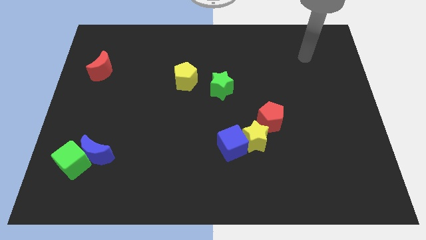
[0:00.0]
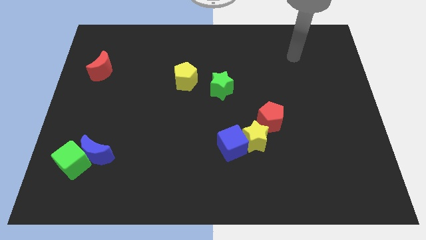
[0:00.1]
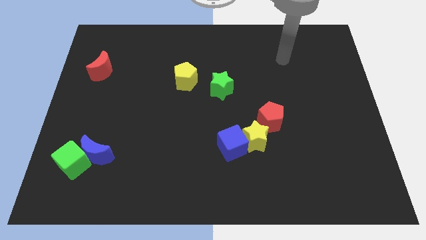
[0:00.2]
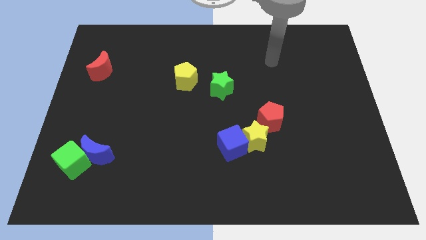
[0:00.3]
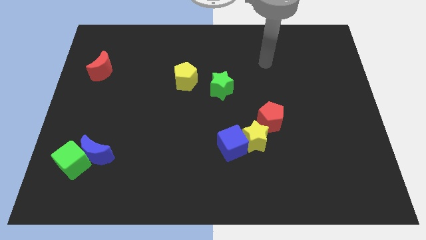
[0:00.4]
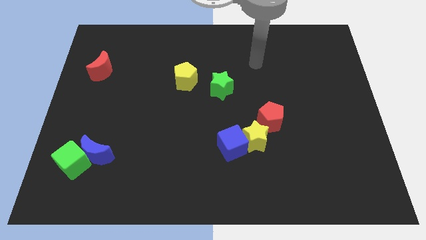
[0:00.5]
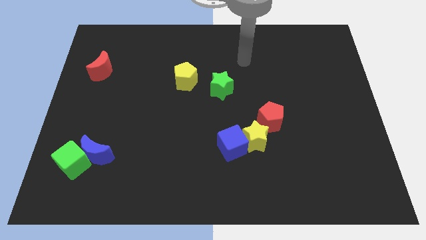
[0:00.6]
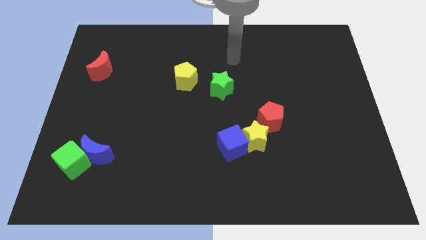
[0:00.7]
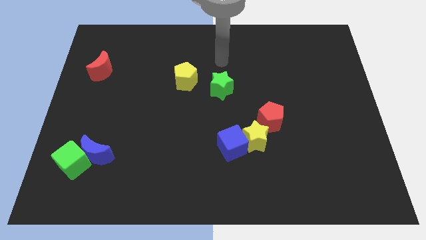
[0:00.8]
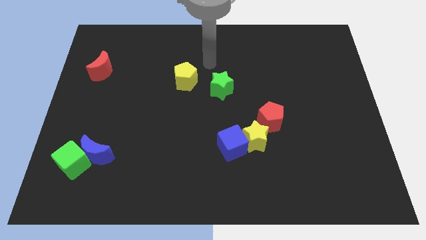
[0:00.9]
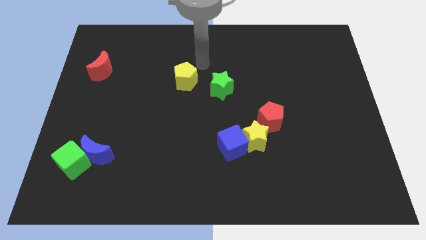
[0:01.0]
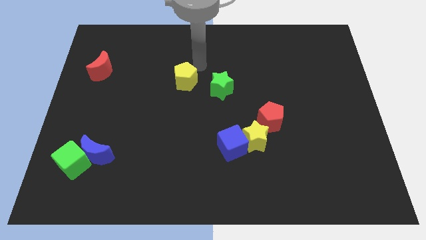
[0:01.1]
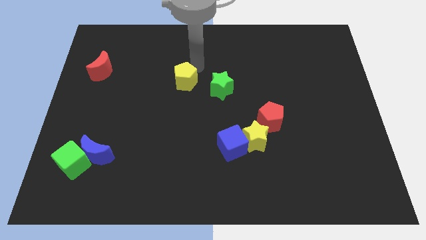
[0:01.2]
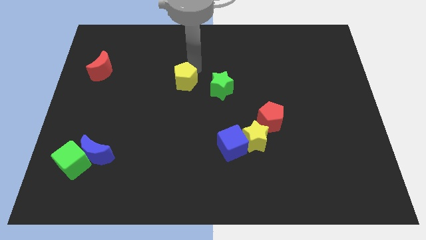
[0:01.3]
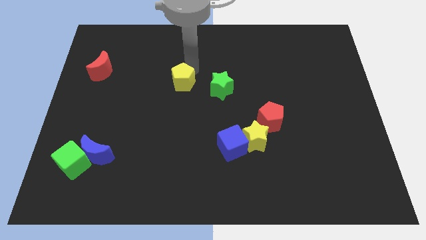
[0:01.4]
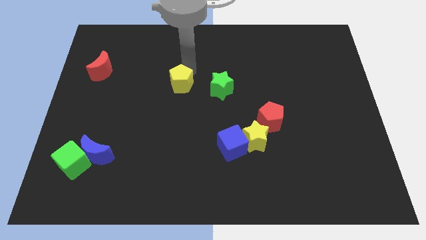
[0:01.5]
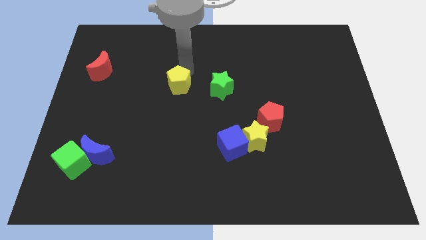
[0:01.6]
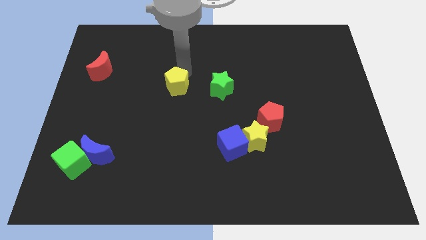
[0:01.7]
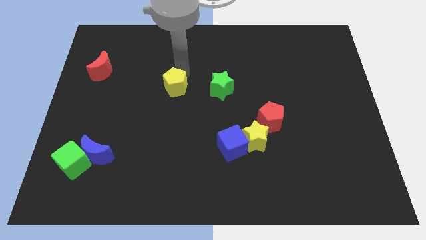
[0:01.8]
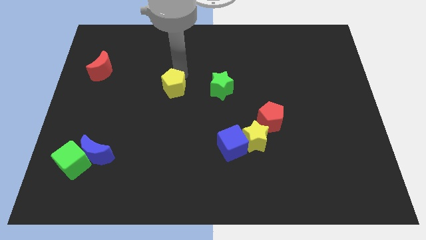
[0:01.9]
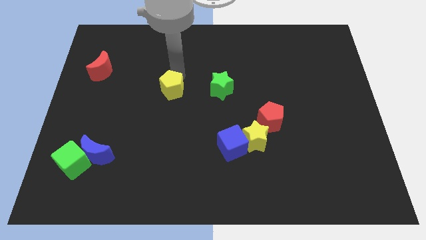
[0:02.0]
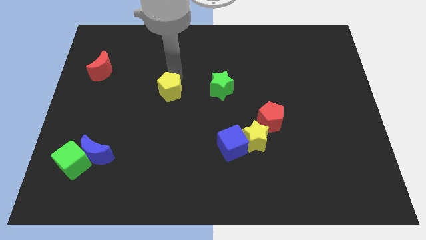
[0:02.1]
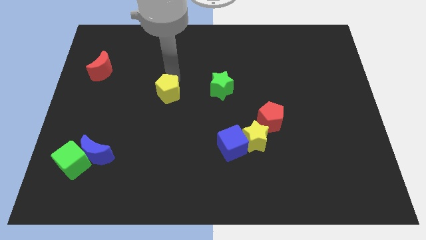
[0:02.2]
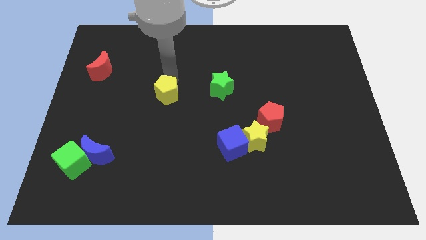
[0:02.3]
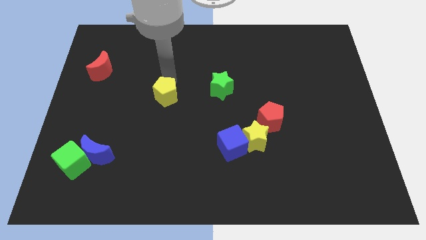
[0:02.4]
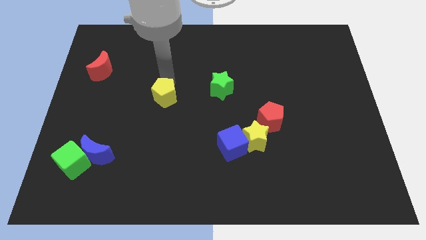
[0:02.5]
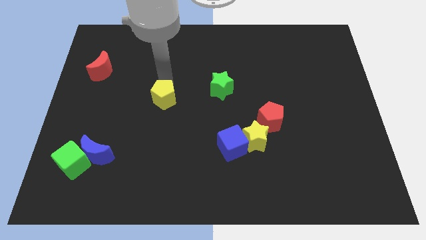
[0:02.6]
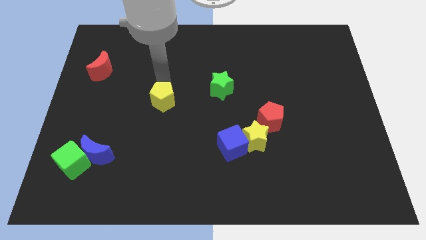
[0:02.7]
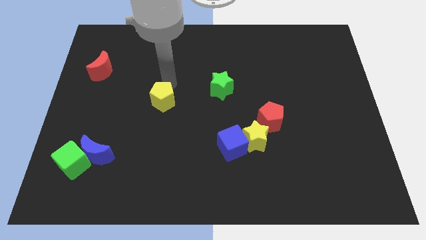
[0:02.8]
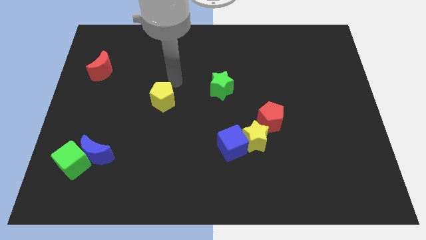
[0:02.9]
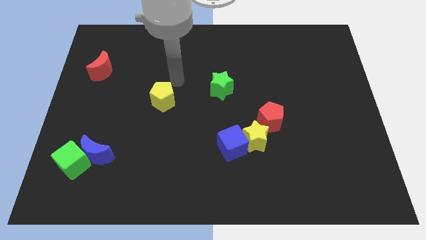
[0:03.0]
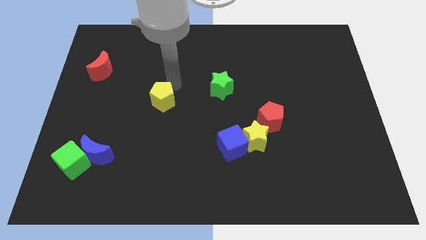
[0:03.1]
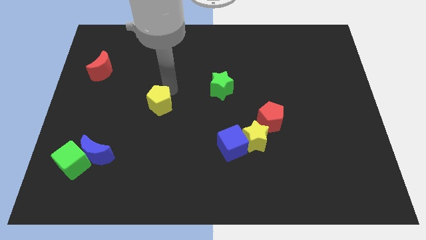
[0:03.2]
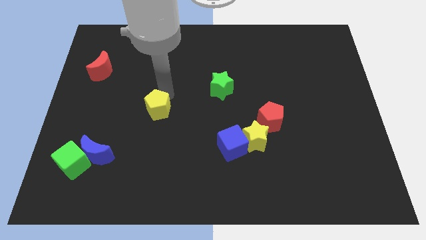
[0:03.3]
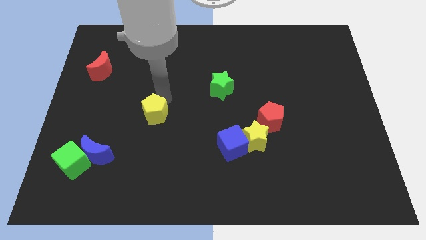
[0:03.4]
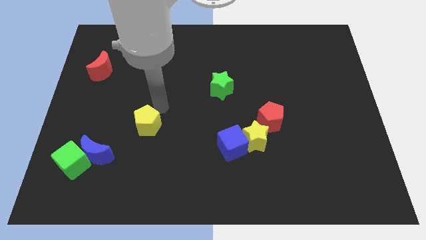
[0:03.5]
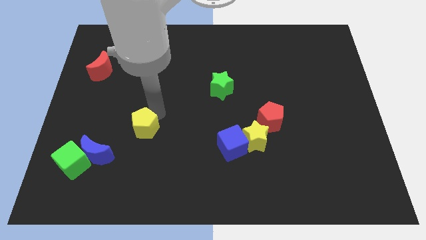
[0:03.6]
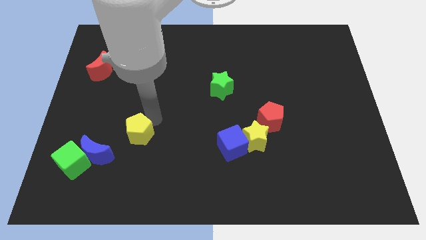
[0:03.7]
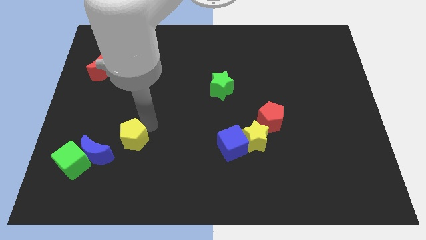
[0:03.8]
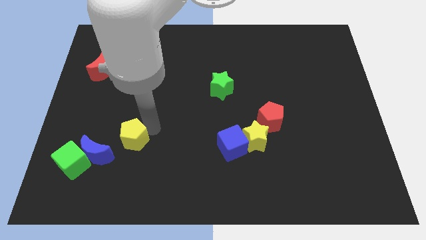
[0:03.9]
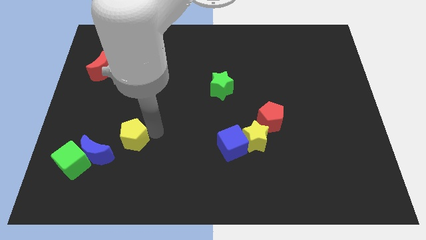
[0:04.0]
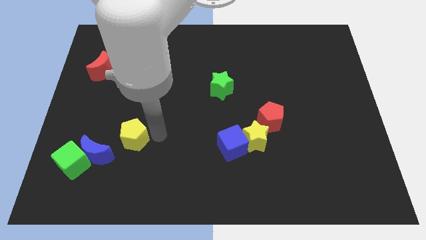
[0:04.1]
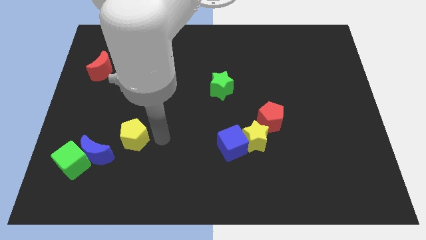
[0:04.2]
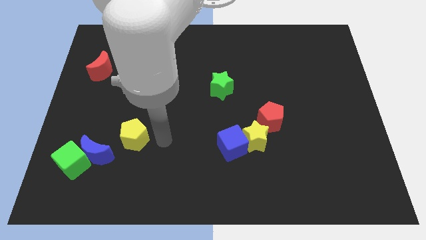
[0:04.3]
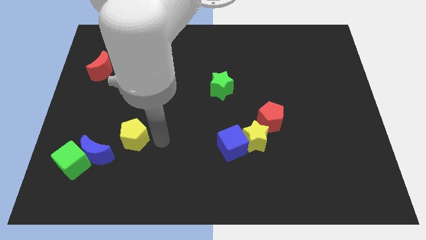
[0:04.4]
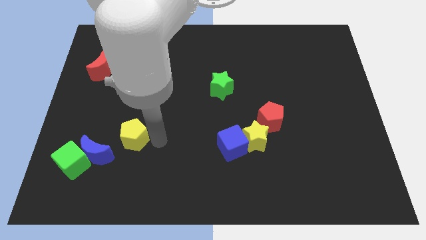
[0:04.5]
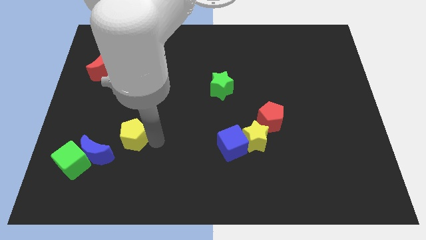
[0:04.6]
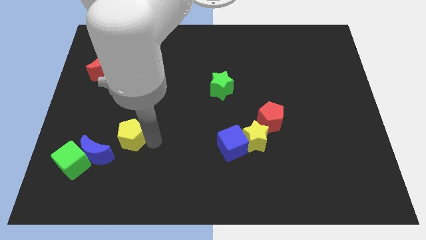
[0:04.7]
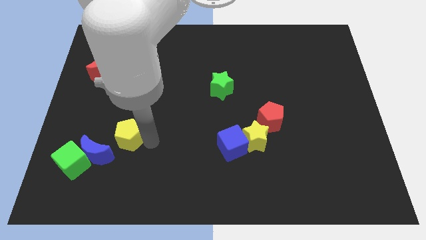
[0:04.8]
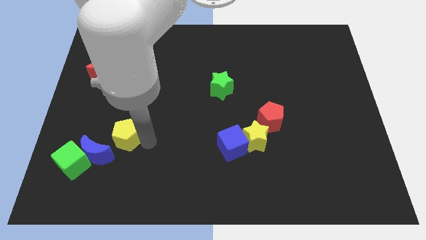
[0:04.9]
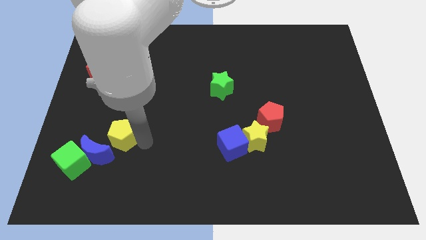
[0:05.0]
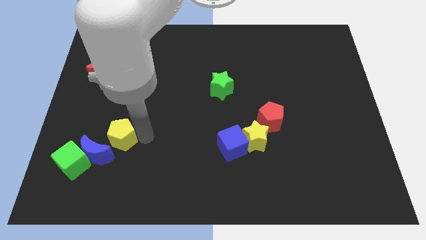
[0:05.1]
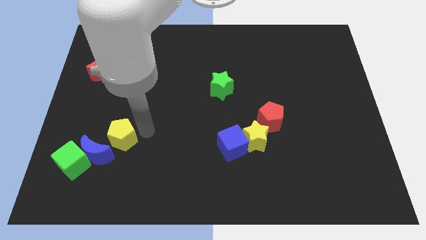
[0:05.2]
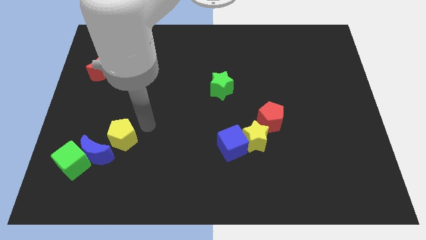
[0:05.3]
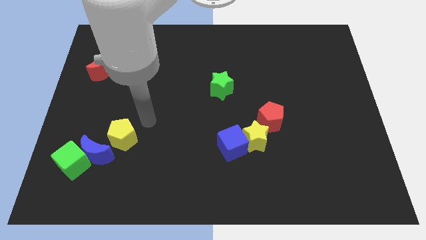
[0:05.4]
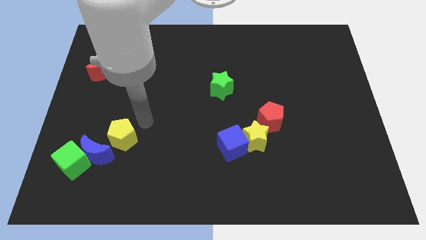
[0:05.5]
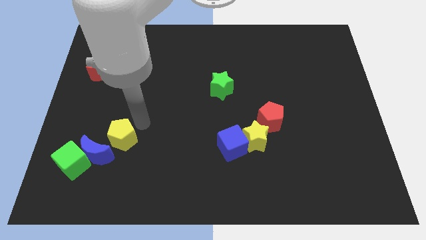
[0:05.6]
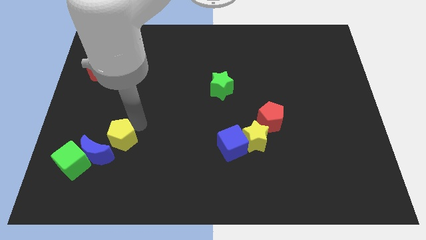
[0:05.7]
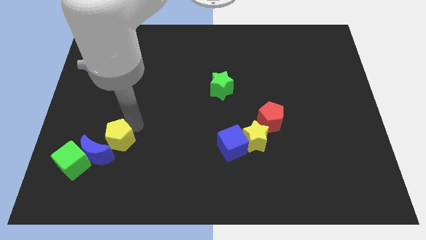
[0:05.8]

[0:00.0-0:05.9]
push the yellow pentagon to the blue moon

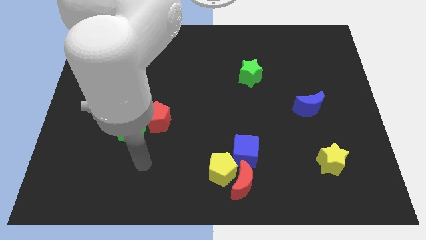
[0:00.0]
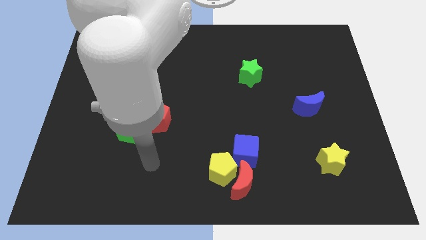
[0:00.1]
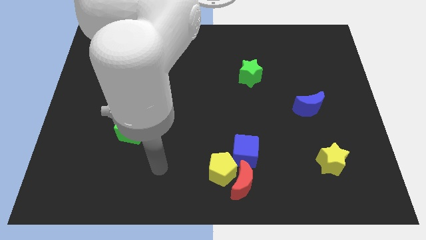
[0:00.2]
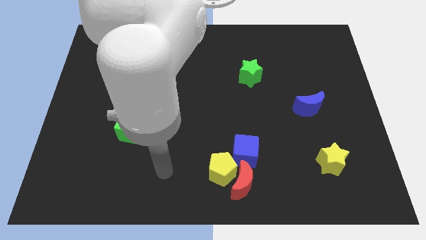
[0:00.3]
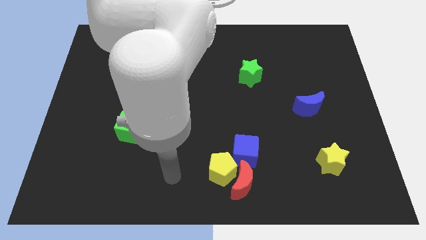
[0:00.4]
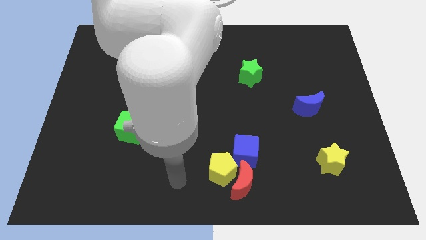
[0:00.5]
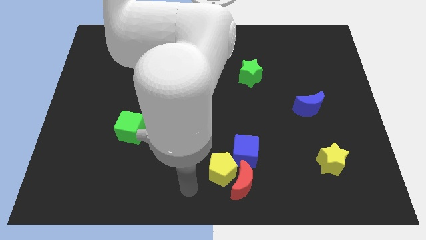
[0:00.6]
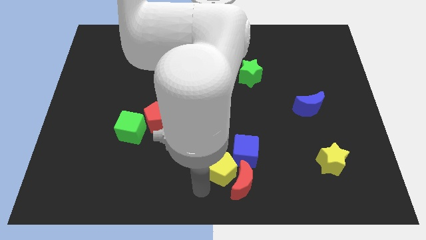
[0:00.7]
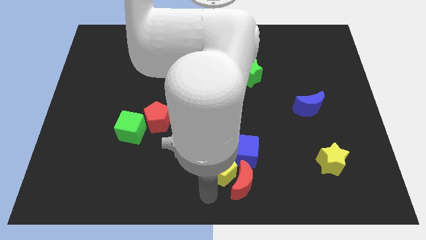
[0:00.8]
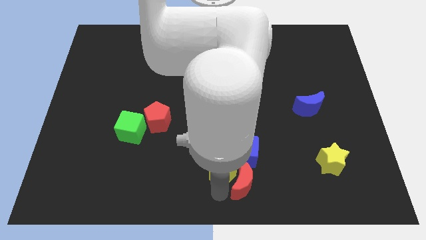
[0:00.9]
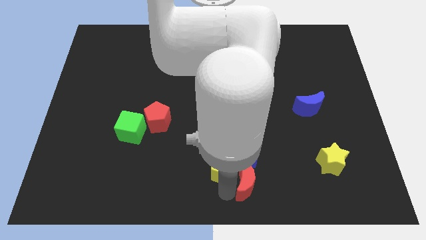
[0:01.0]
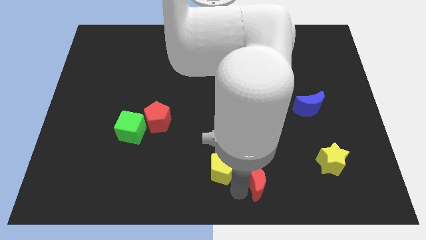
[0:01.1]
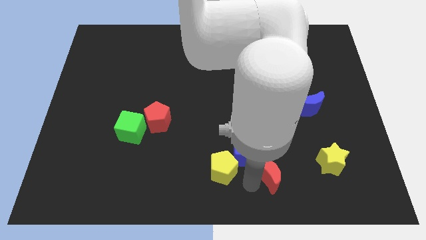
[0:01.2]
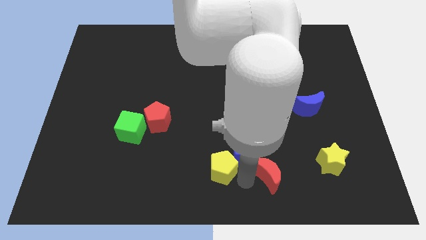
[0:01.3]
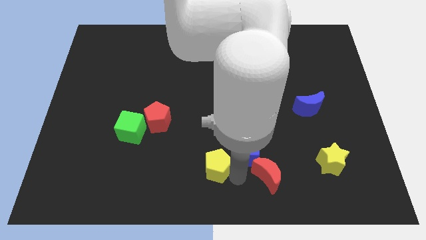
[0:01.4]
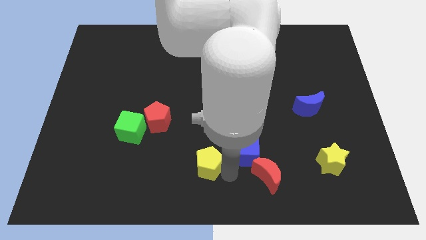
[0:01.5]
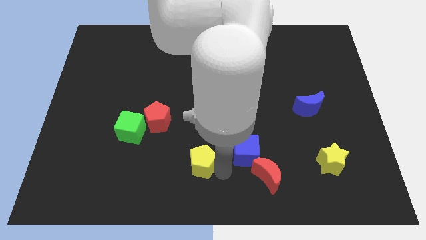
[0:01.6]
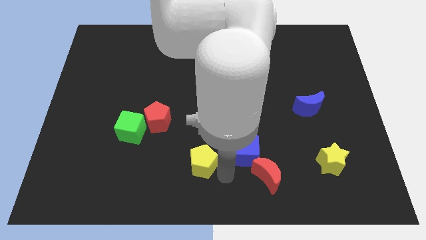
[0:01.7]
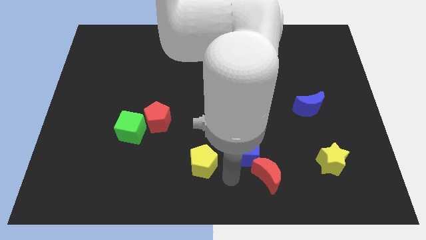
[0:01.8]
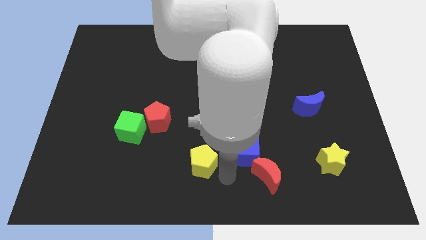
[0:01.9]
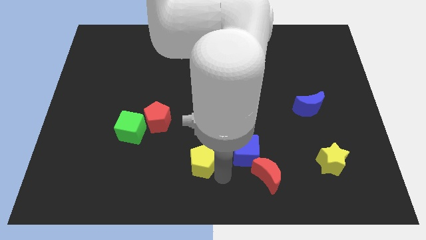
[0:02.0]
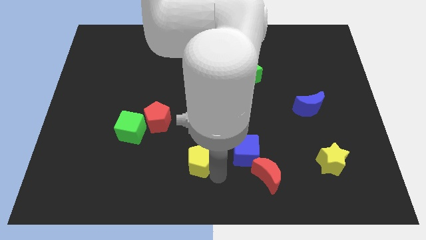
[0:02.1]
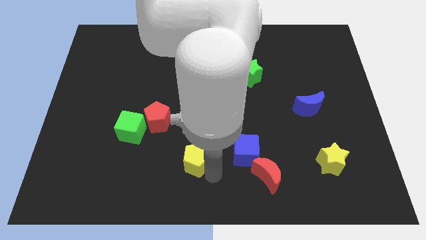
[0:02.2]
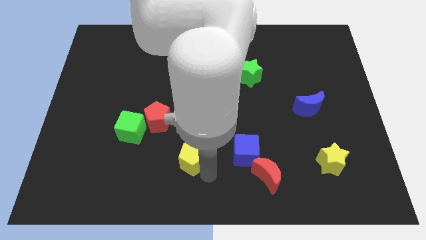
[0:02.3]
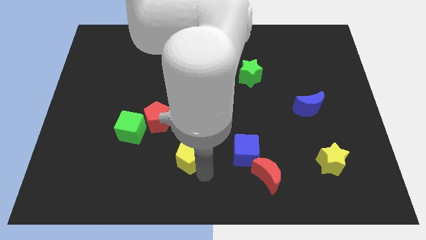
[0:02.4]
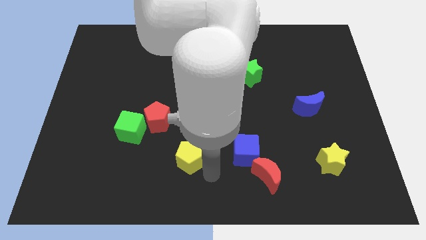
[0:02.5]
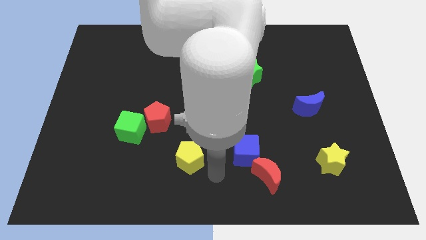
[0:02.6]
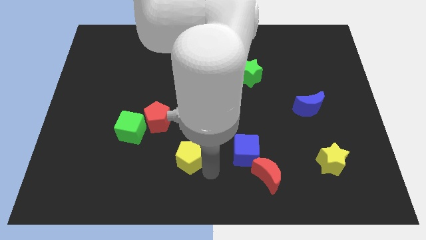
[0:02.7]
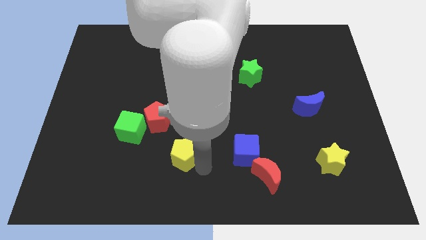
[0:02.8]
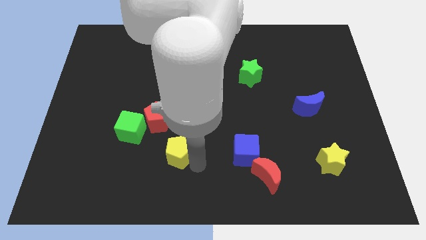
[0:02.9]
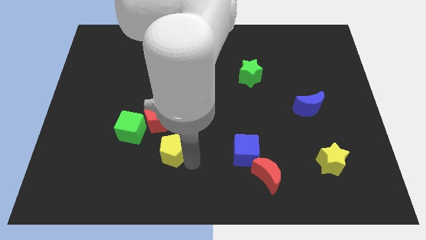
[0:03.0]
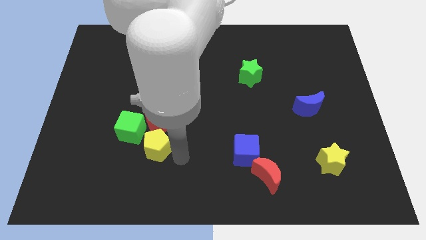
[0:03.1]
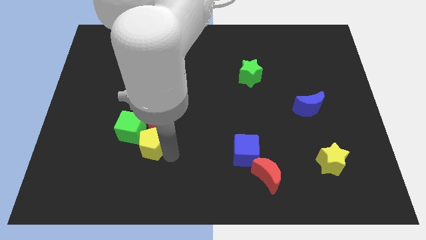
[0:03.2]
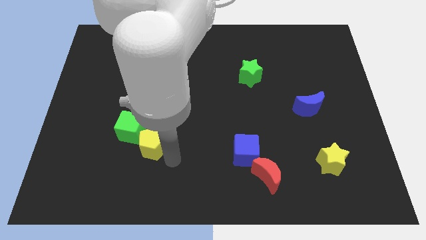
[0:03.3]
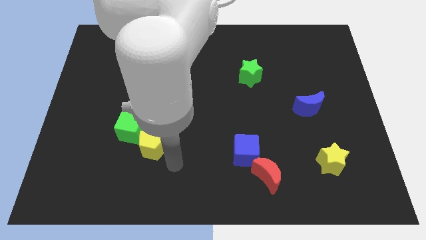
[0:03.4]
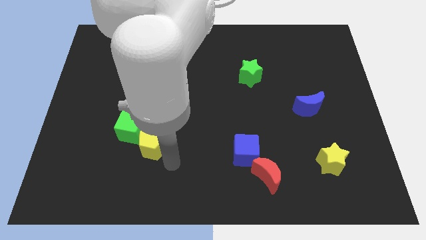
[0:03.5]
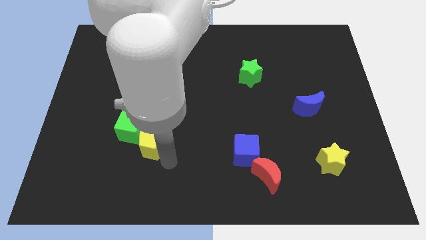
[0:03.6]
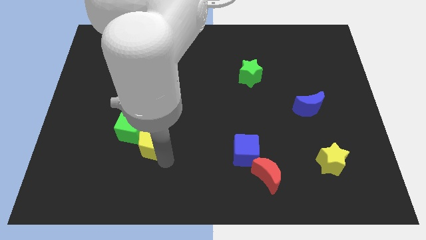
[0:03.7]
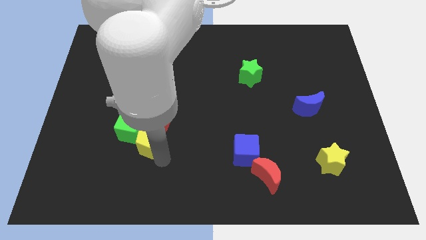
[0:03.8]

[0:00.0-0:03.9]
push the yellow pentagon close to the green cube
